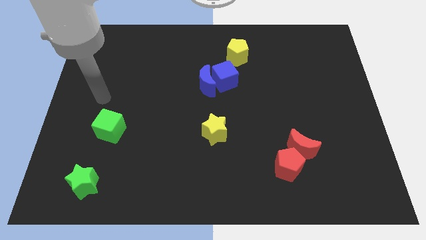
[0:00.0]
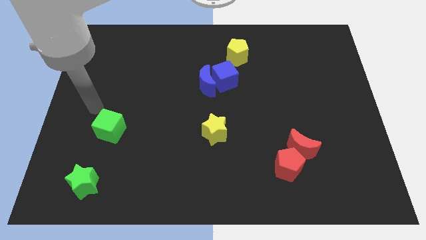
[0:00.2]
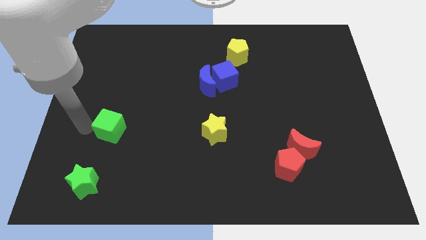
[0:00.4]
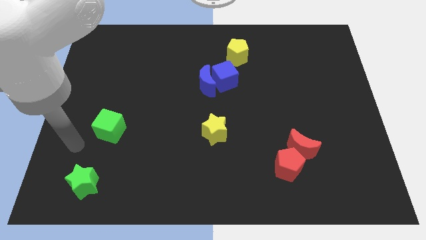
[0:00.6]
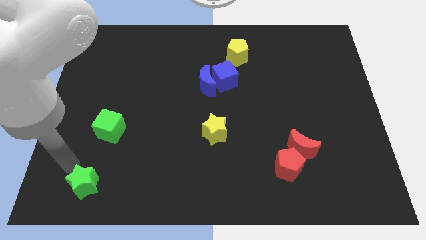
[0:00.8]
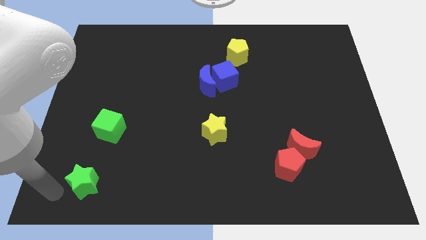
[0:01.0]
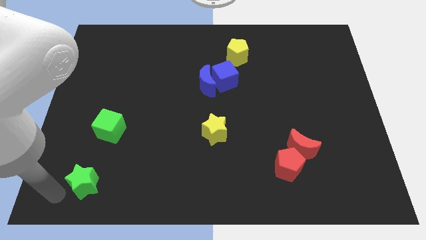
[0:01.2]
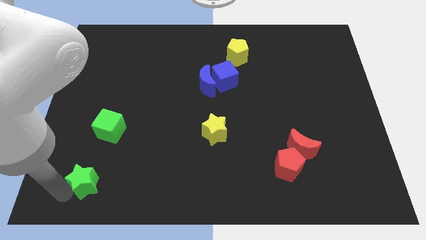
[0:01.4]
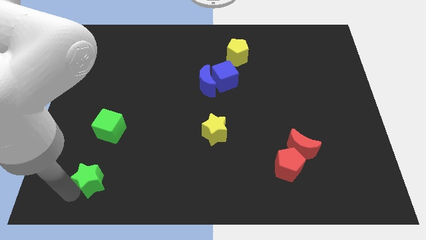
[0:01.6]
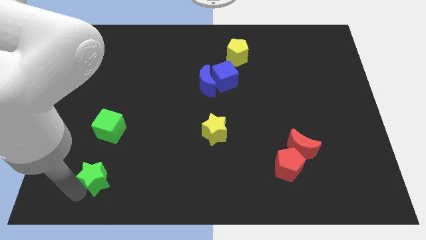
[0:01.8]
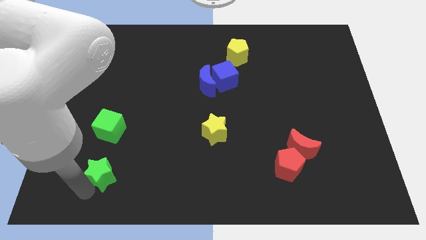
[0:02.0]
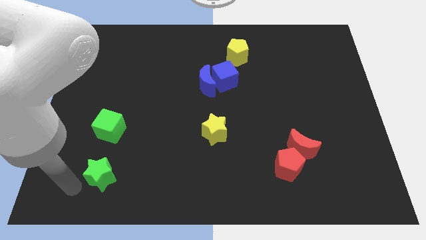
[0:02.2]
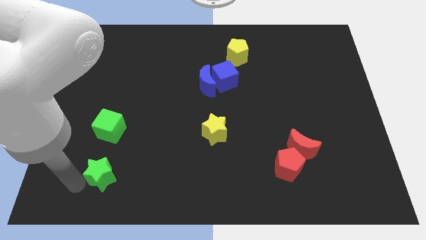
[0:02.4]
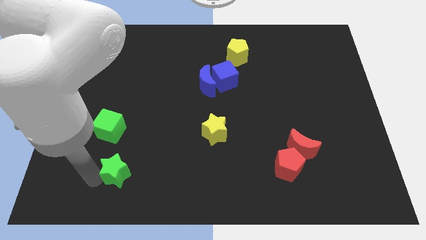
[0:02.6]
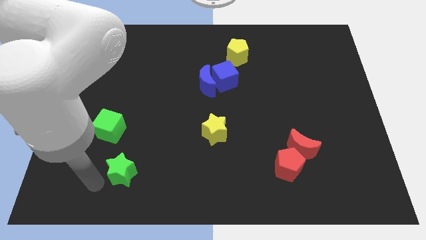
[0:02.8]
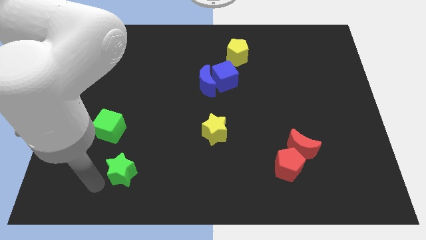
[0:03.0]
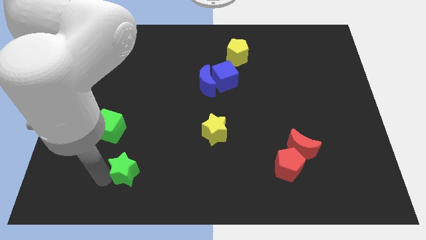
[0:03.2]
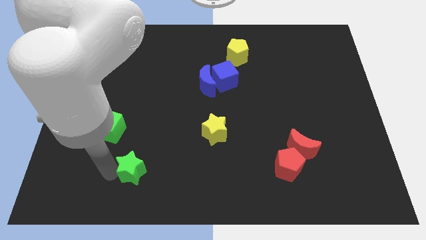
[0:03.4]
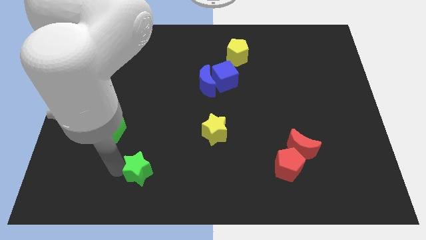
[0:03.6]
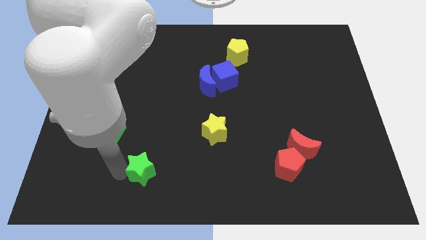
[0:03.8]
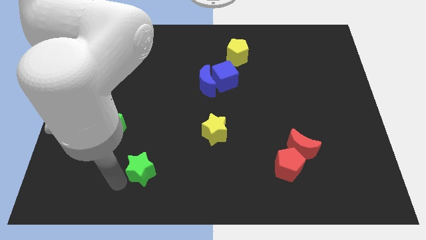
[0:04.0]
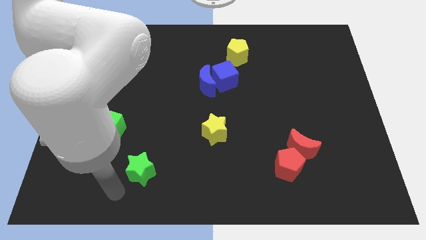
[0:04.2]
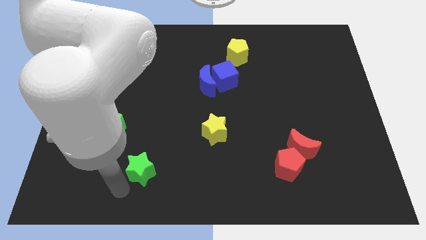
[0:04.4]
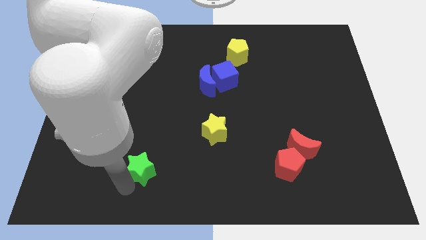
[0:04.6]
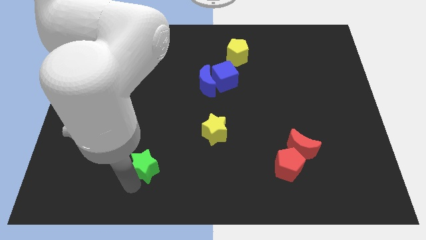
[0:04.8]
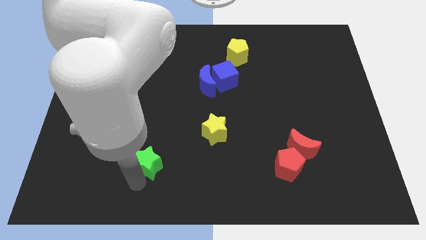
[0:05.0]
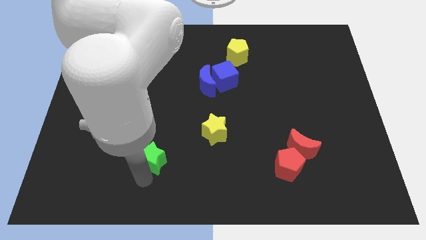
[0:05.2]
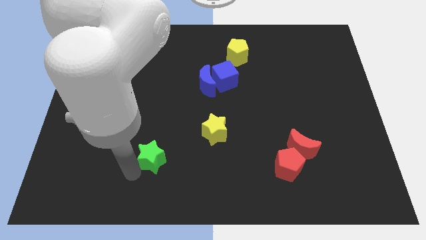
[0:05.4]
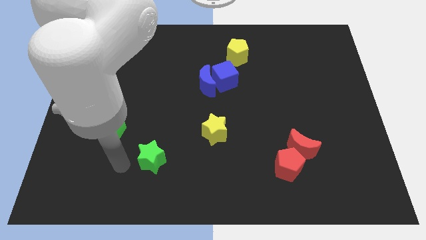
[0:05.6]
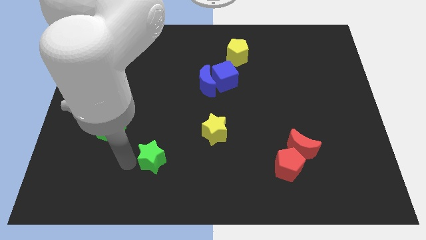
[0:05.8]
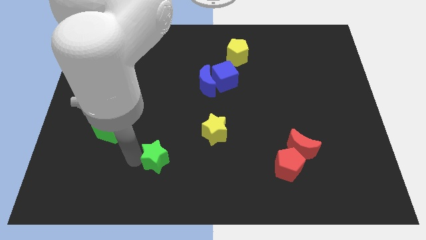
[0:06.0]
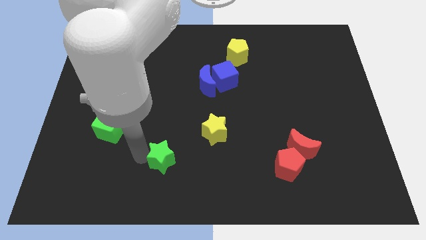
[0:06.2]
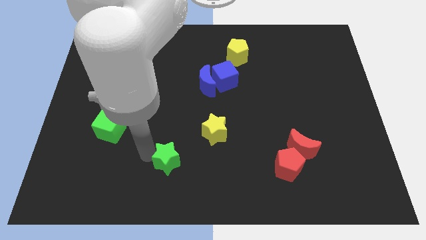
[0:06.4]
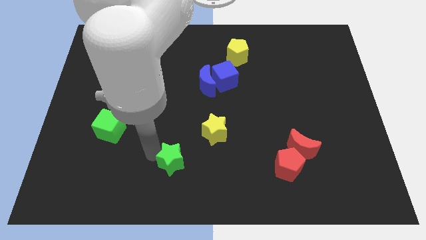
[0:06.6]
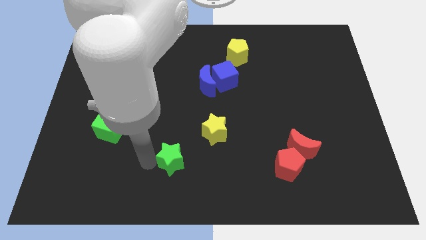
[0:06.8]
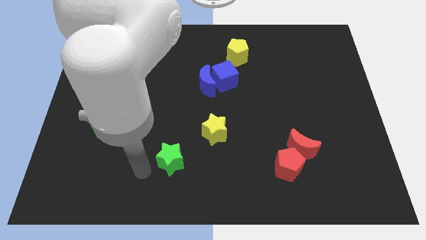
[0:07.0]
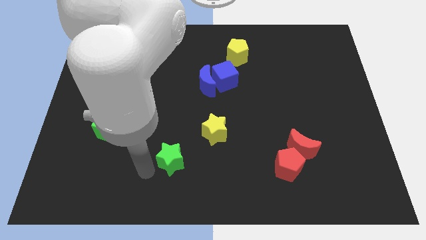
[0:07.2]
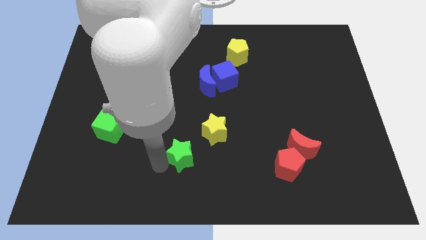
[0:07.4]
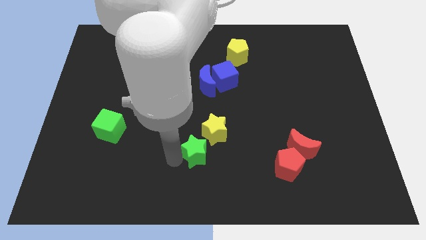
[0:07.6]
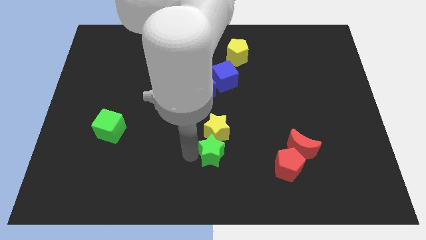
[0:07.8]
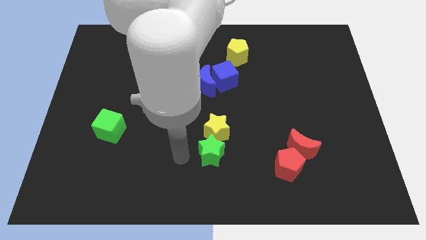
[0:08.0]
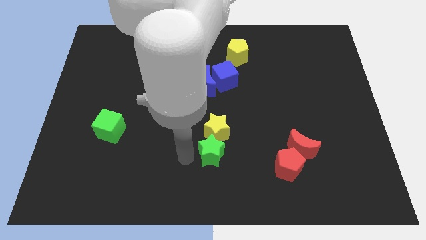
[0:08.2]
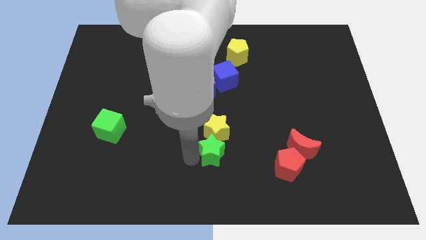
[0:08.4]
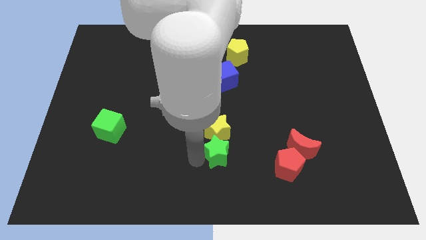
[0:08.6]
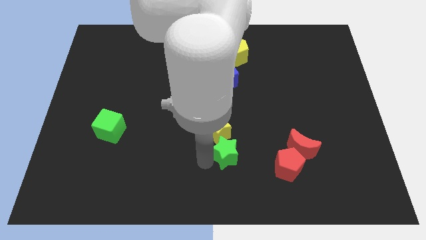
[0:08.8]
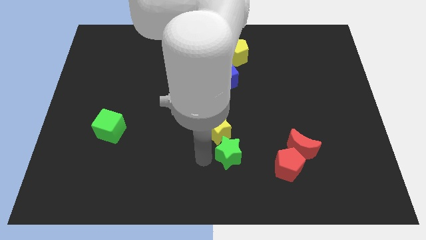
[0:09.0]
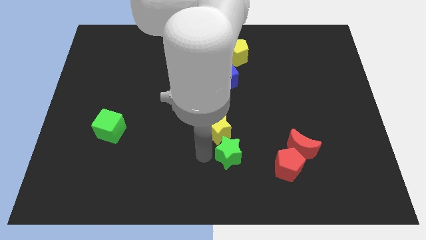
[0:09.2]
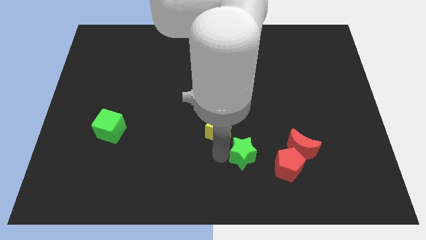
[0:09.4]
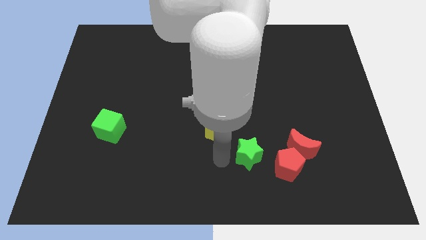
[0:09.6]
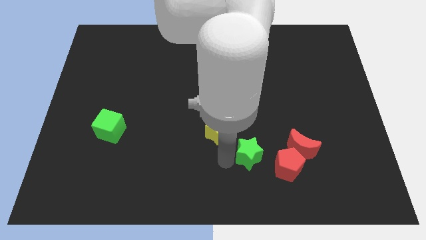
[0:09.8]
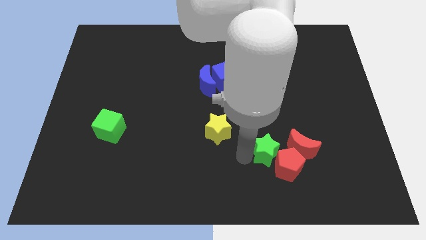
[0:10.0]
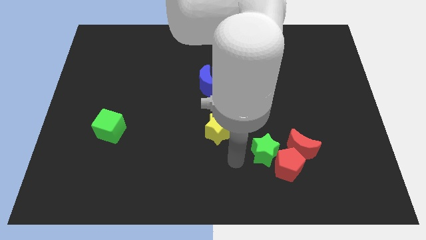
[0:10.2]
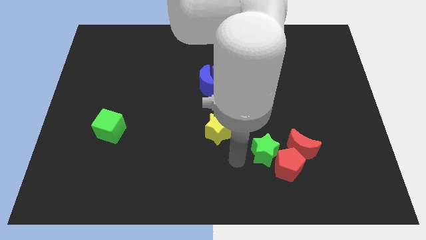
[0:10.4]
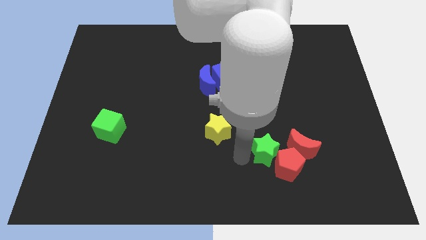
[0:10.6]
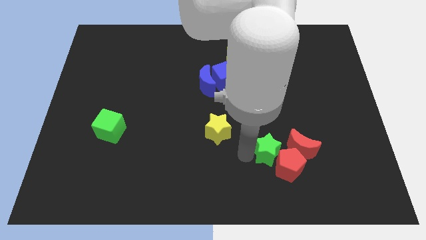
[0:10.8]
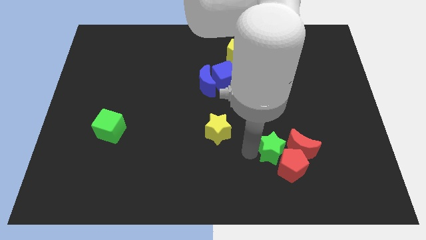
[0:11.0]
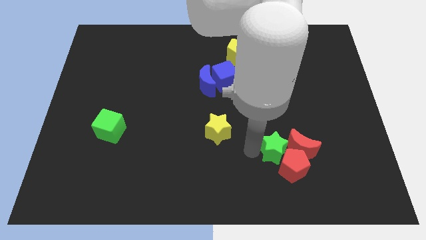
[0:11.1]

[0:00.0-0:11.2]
push the green star close to the red moon

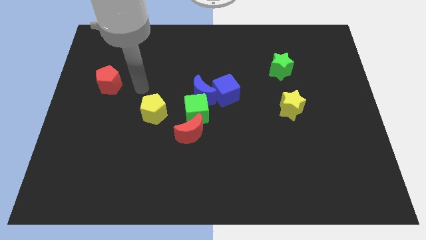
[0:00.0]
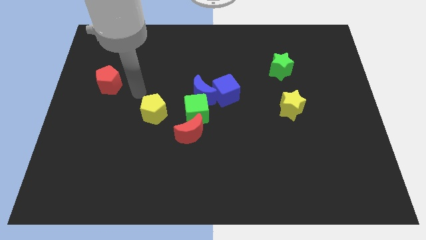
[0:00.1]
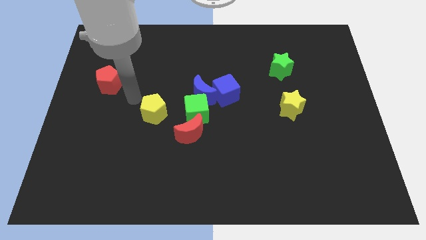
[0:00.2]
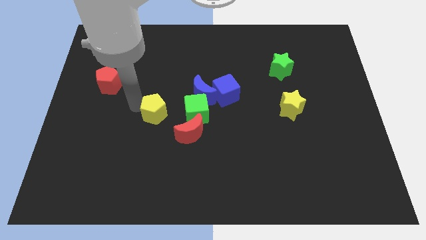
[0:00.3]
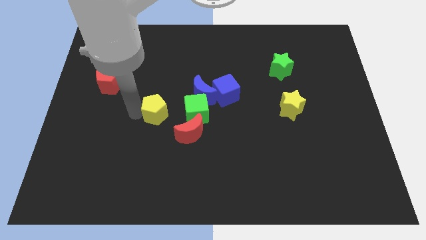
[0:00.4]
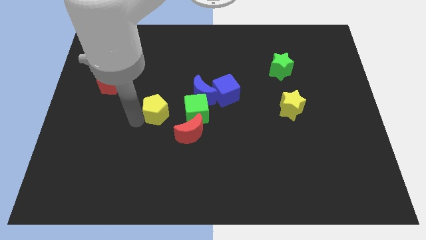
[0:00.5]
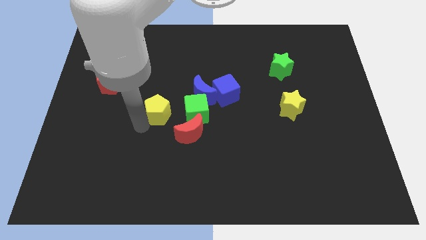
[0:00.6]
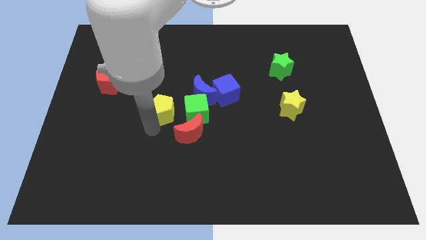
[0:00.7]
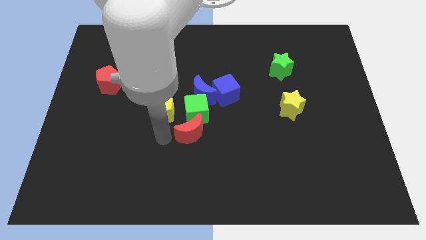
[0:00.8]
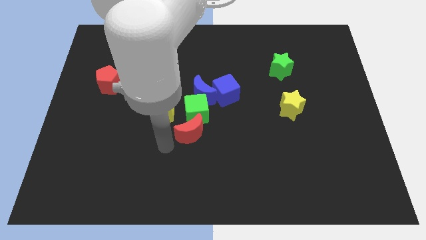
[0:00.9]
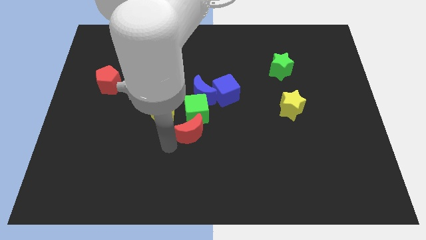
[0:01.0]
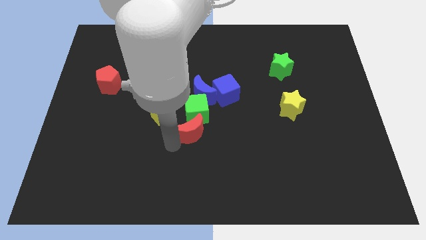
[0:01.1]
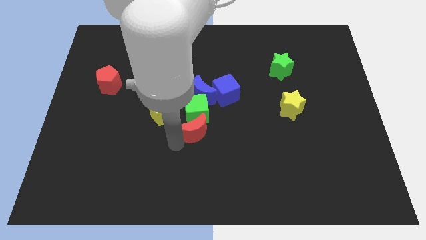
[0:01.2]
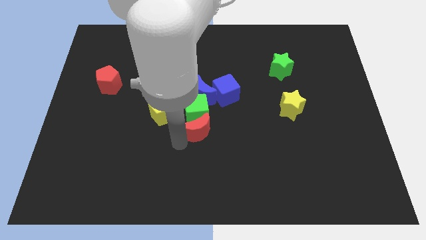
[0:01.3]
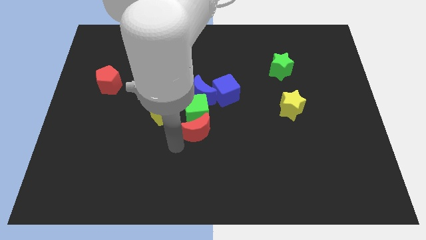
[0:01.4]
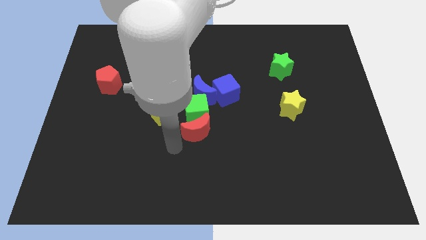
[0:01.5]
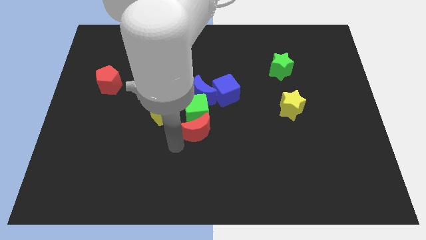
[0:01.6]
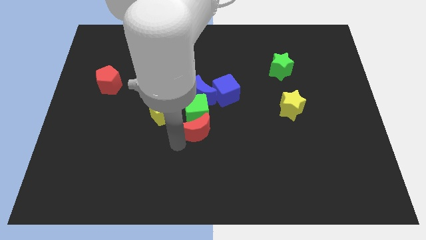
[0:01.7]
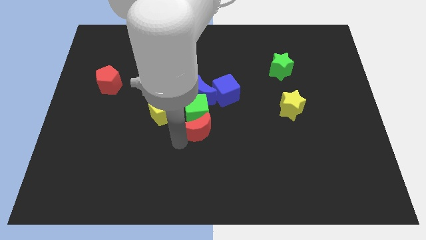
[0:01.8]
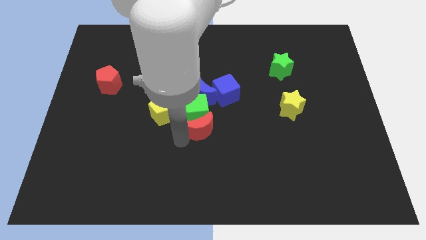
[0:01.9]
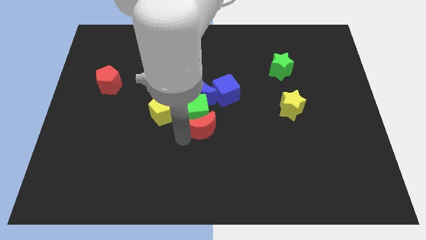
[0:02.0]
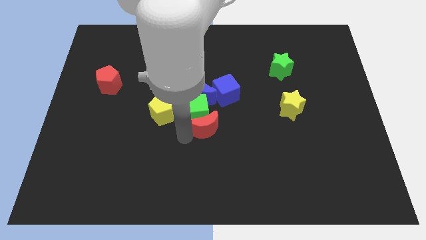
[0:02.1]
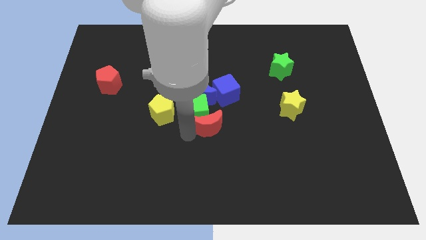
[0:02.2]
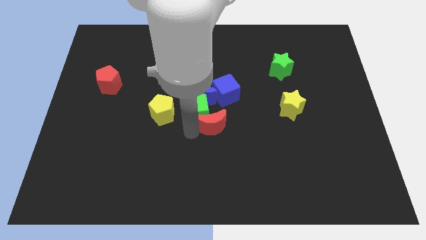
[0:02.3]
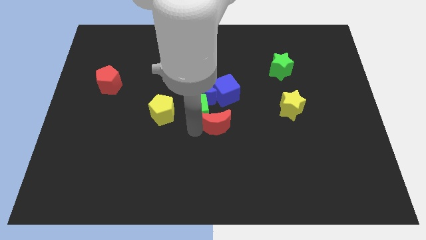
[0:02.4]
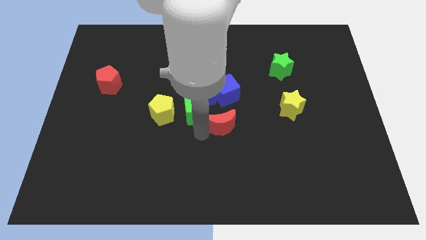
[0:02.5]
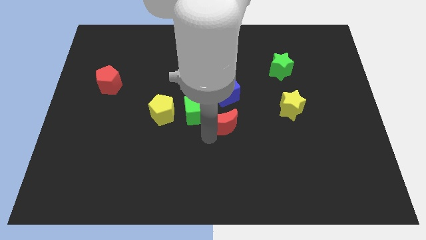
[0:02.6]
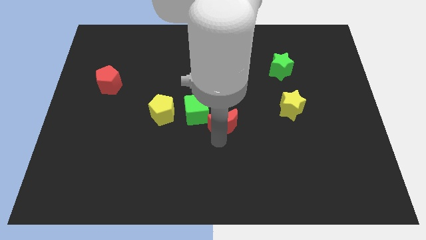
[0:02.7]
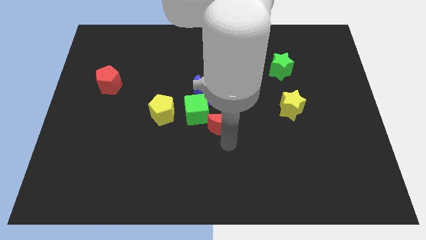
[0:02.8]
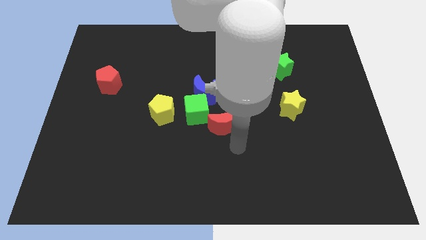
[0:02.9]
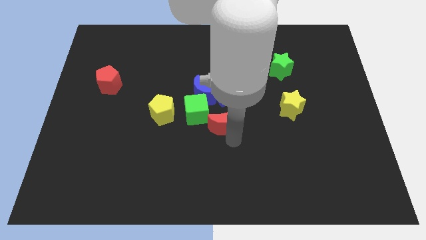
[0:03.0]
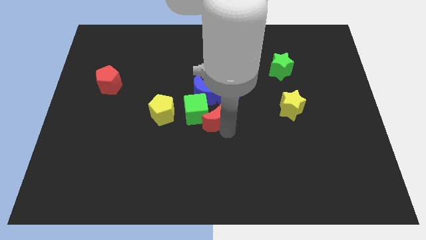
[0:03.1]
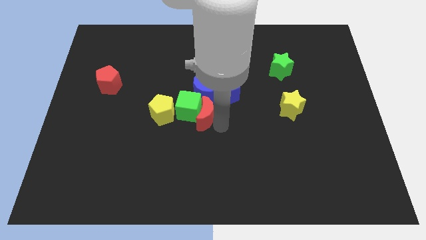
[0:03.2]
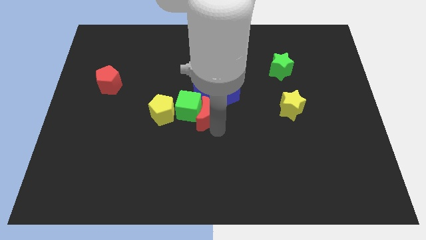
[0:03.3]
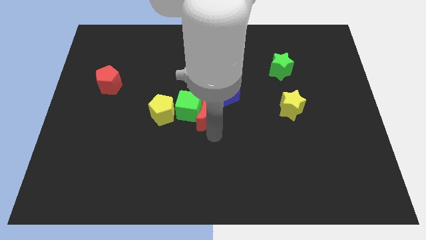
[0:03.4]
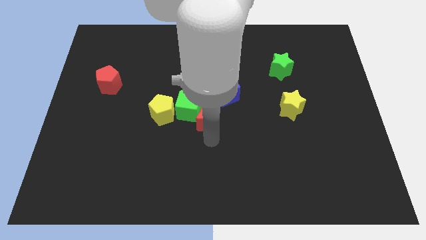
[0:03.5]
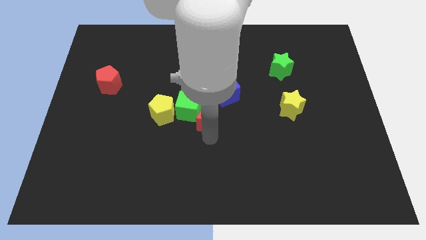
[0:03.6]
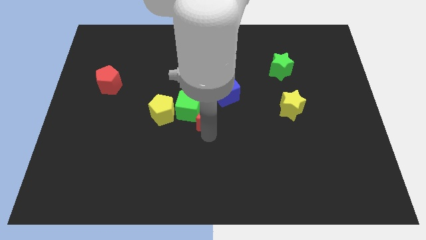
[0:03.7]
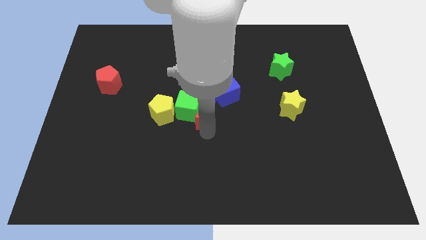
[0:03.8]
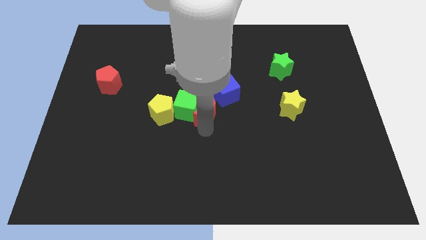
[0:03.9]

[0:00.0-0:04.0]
move the red moon towards the blue moon
